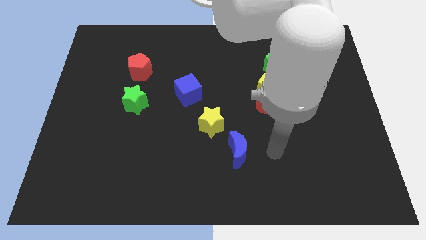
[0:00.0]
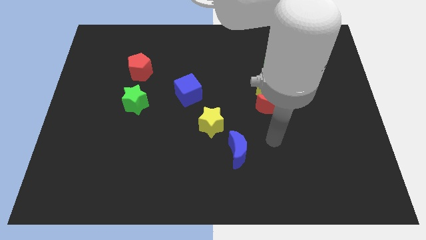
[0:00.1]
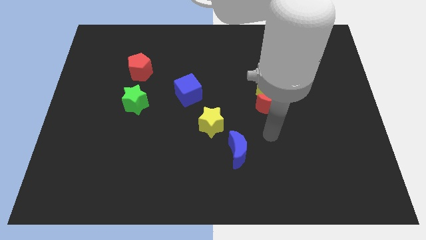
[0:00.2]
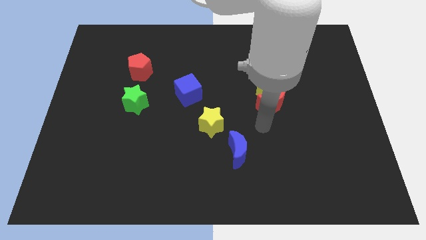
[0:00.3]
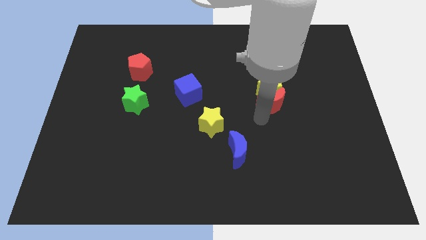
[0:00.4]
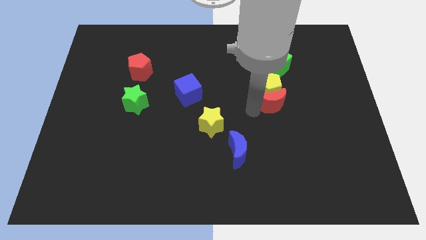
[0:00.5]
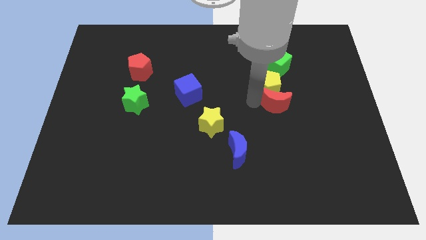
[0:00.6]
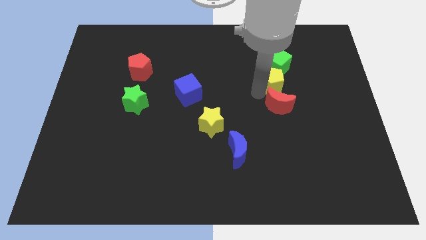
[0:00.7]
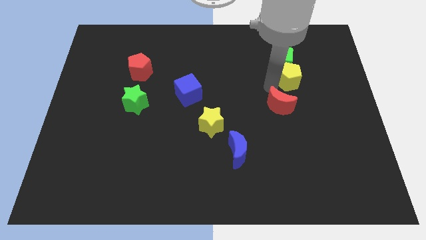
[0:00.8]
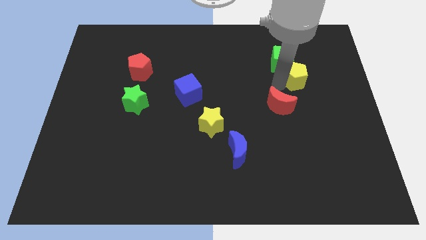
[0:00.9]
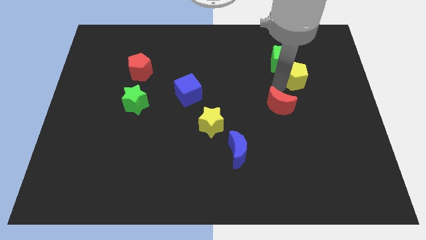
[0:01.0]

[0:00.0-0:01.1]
separate the red moon from the yellow pentagon

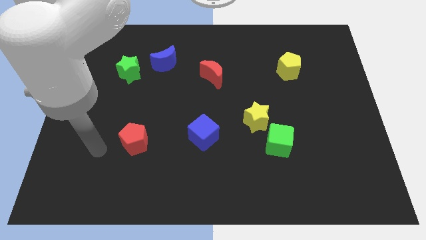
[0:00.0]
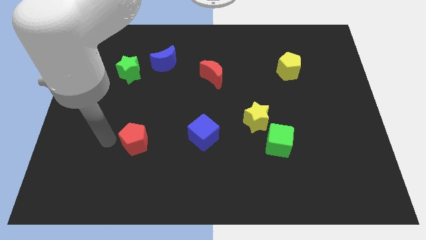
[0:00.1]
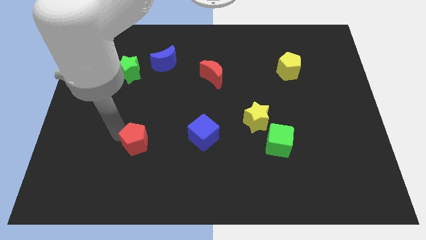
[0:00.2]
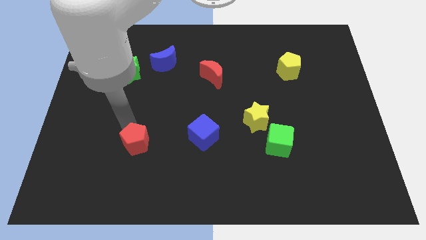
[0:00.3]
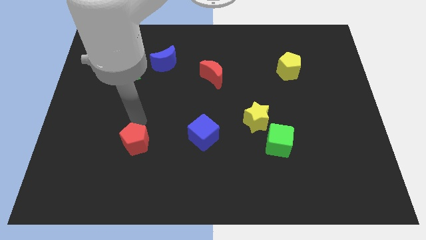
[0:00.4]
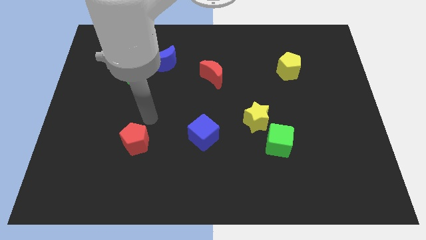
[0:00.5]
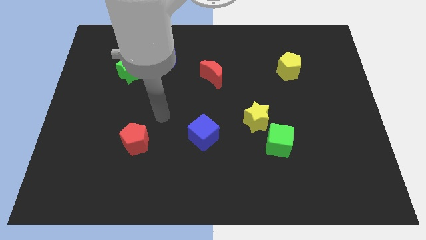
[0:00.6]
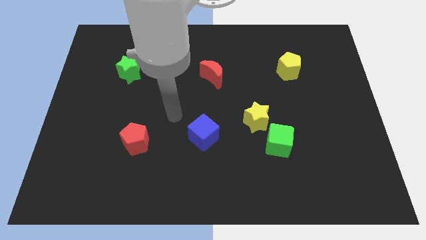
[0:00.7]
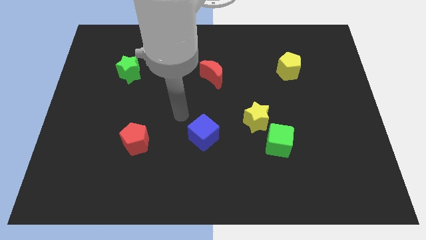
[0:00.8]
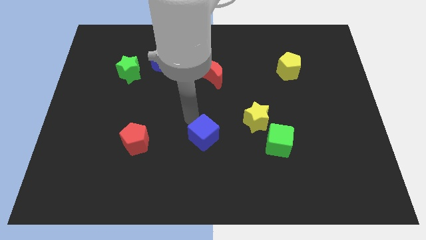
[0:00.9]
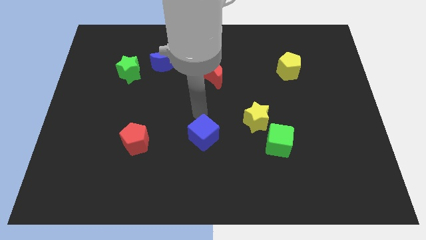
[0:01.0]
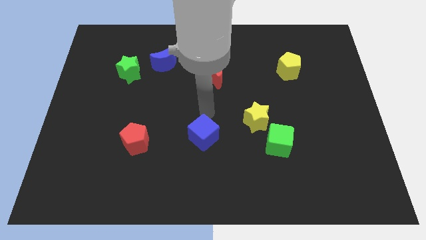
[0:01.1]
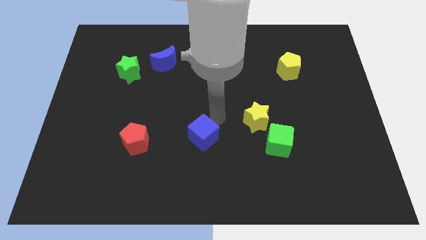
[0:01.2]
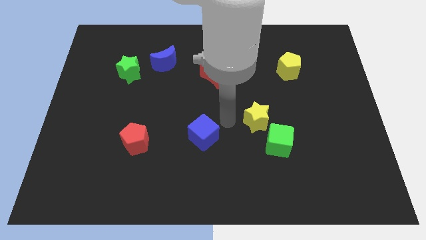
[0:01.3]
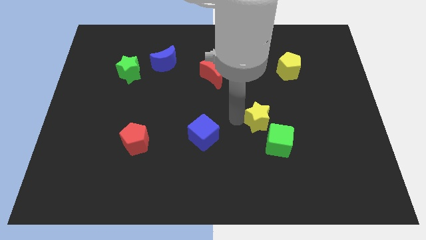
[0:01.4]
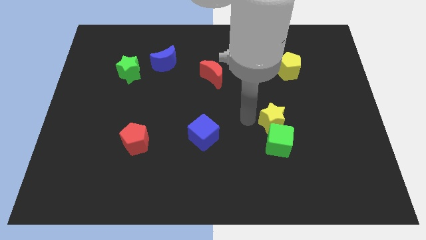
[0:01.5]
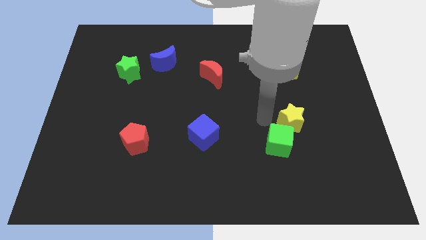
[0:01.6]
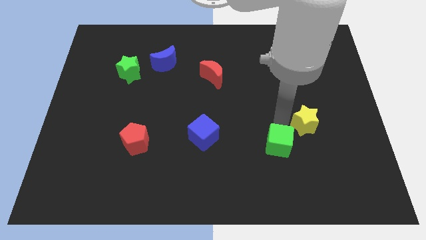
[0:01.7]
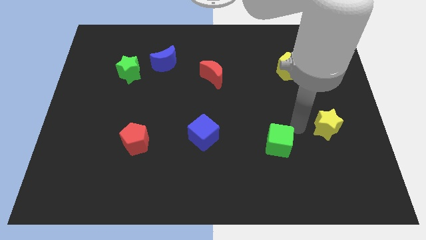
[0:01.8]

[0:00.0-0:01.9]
separate the green cube from the yellow star

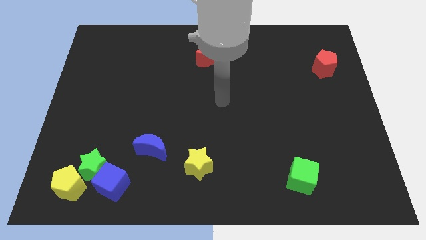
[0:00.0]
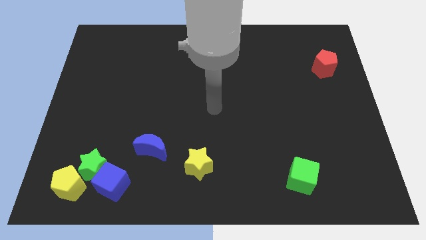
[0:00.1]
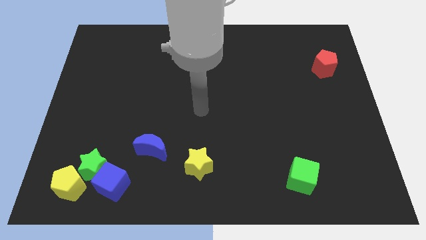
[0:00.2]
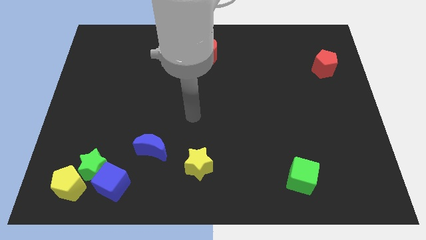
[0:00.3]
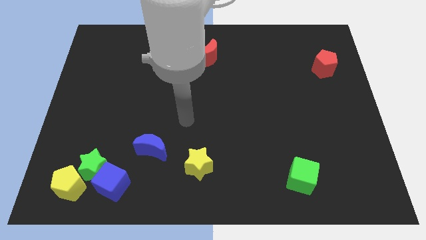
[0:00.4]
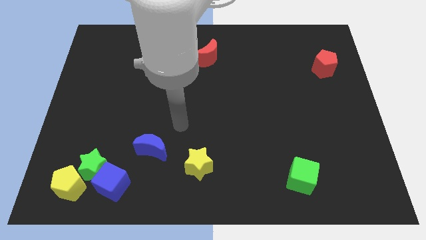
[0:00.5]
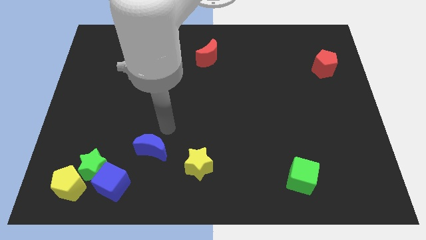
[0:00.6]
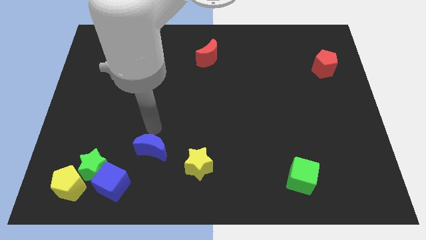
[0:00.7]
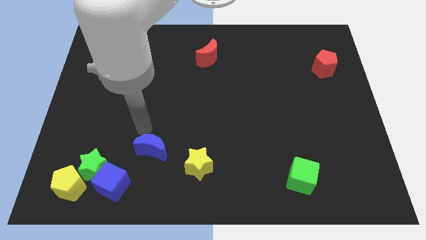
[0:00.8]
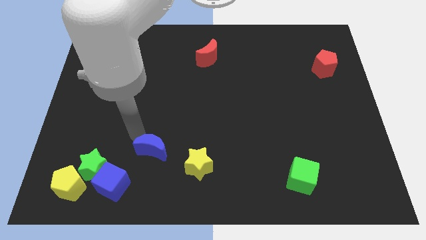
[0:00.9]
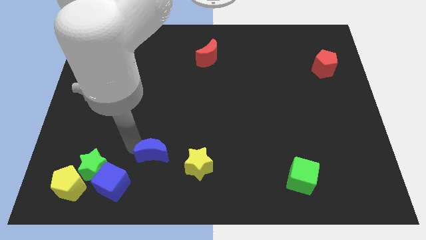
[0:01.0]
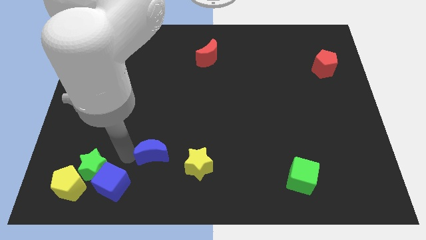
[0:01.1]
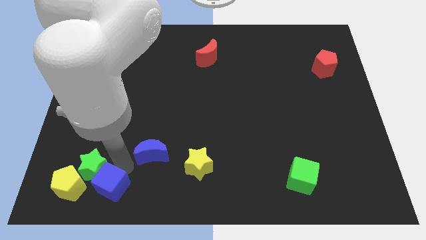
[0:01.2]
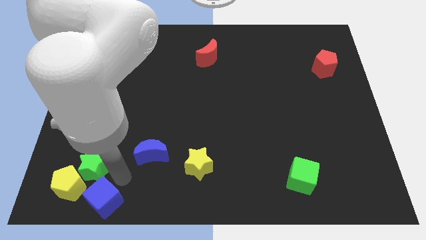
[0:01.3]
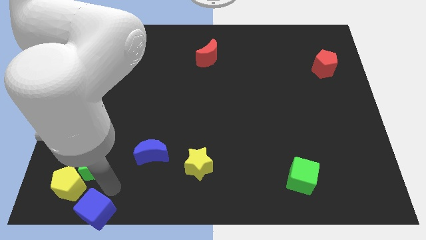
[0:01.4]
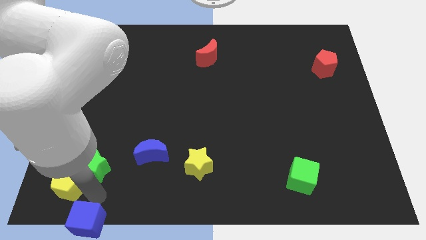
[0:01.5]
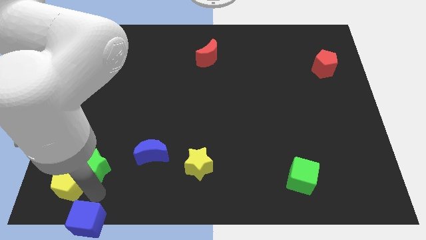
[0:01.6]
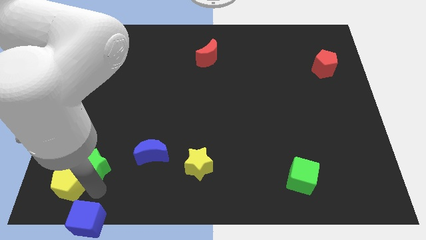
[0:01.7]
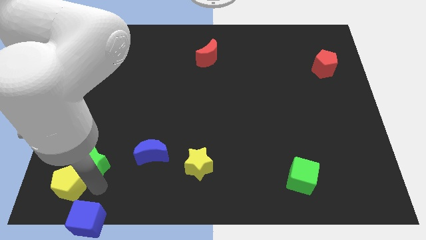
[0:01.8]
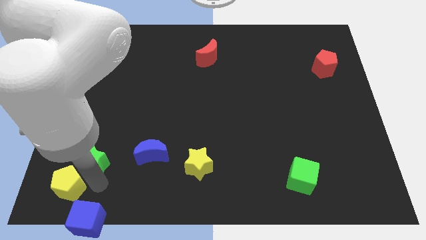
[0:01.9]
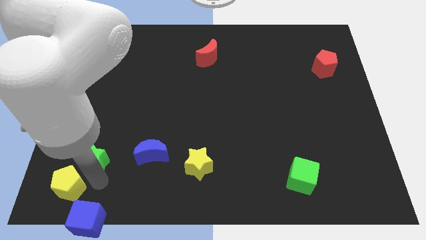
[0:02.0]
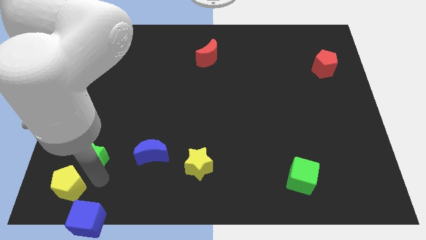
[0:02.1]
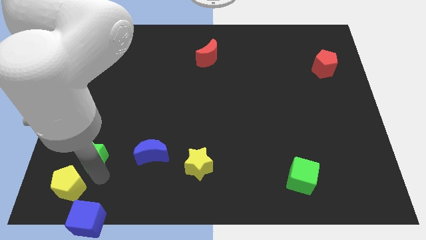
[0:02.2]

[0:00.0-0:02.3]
separate the green star from the blue cube and yellow pentagon

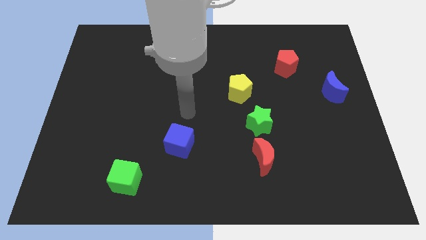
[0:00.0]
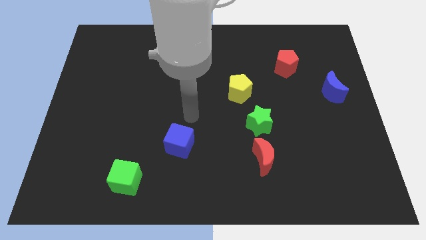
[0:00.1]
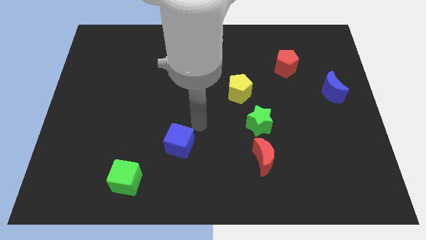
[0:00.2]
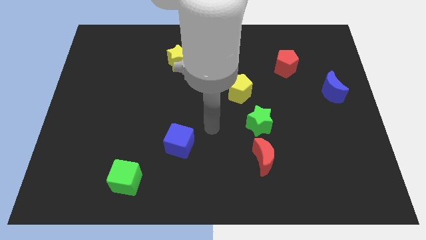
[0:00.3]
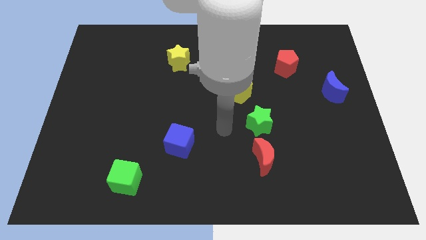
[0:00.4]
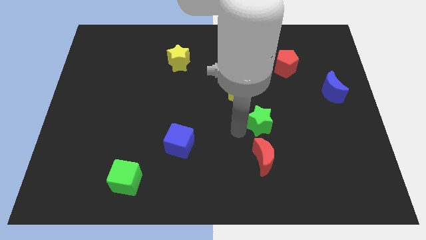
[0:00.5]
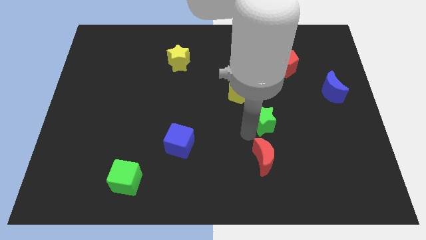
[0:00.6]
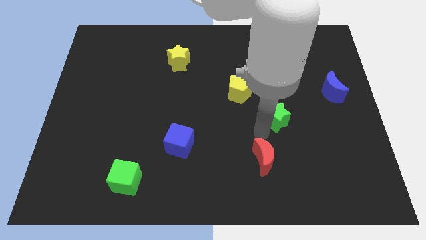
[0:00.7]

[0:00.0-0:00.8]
move the red moon away from the green star

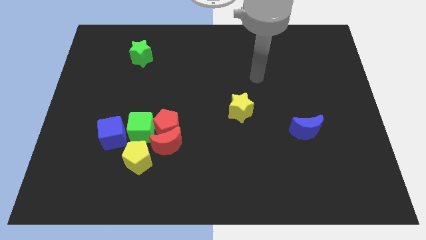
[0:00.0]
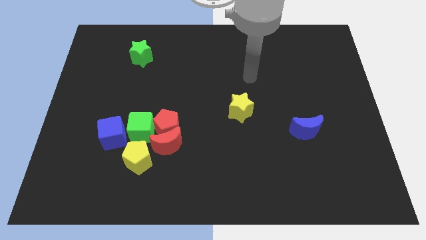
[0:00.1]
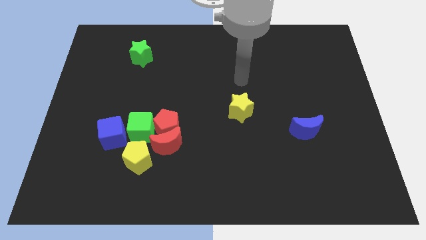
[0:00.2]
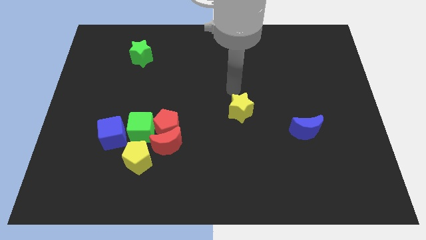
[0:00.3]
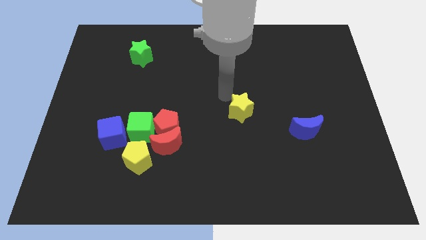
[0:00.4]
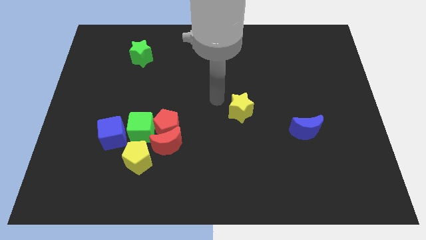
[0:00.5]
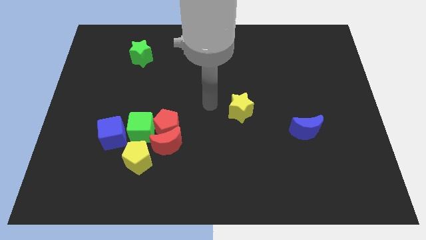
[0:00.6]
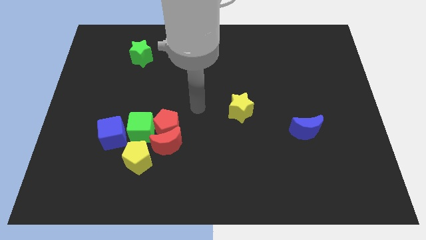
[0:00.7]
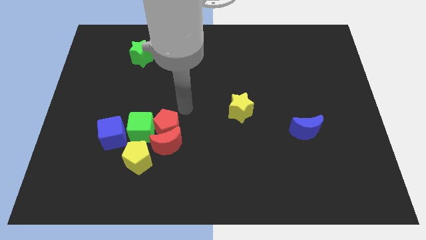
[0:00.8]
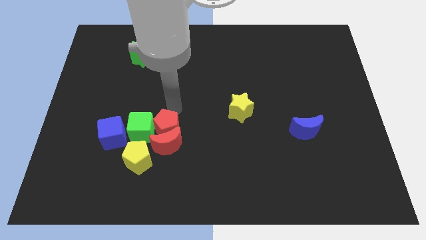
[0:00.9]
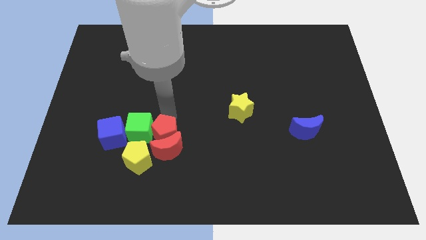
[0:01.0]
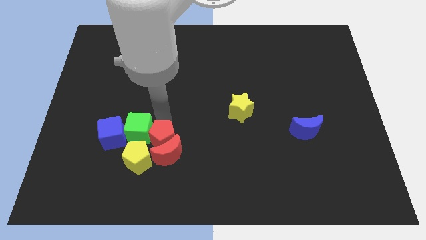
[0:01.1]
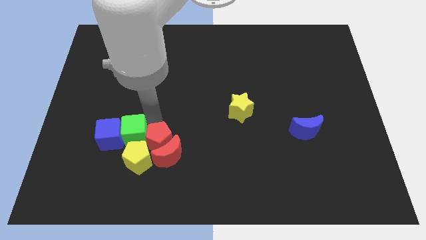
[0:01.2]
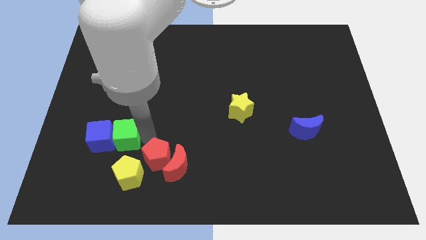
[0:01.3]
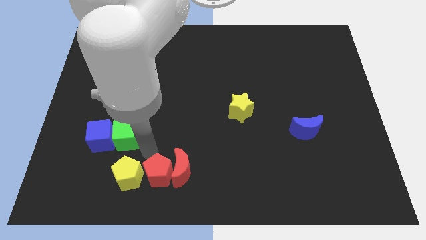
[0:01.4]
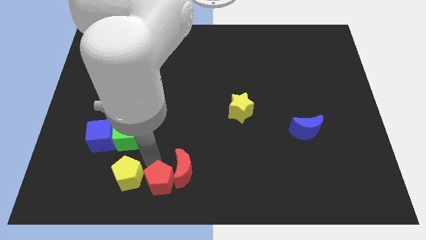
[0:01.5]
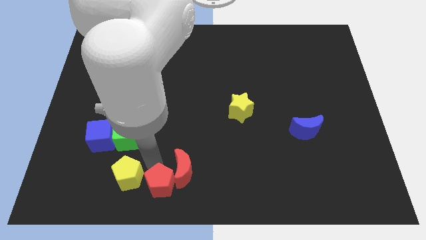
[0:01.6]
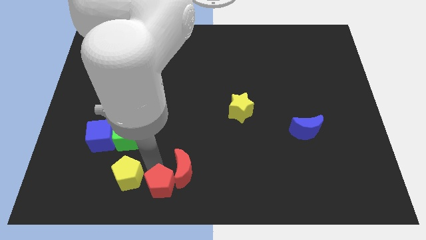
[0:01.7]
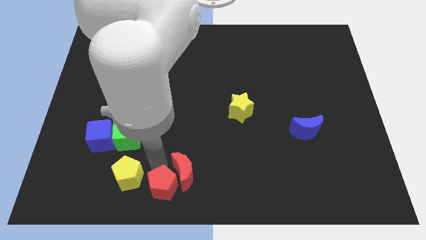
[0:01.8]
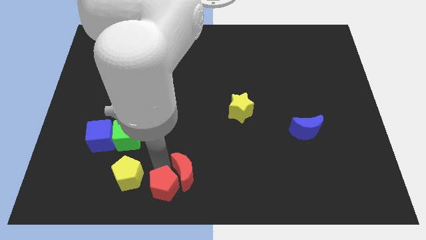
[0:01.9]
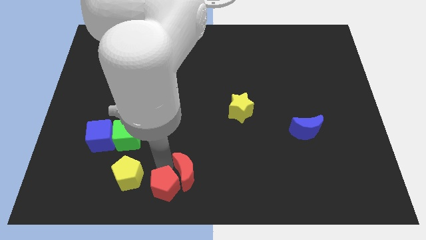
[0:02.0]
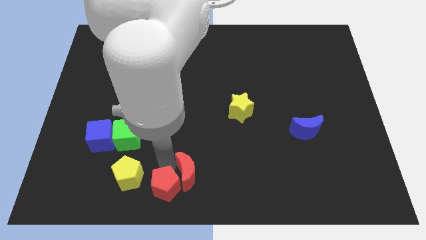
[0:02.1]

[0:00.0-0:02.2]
move the red moon away from the red pentagon, yellow pentagon, and green cube

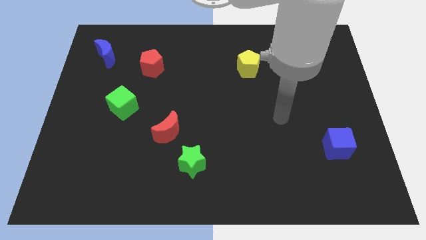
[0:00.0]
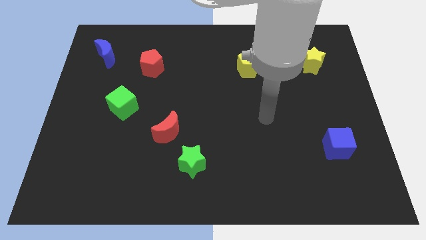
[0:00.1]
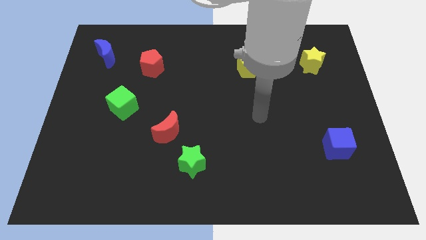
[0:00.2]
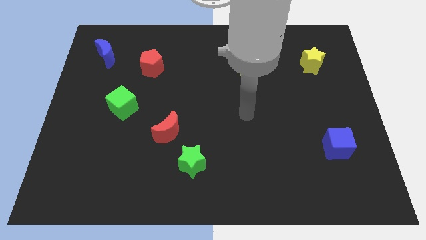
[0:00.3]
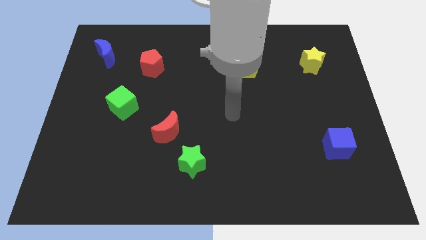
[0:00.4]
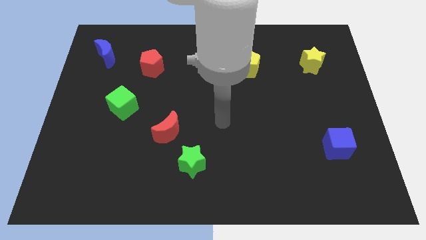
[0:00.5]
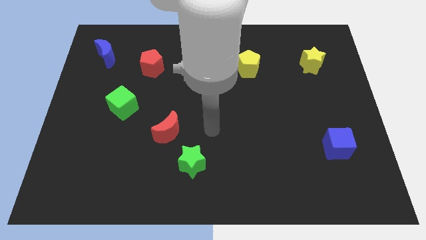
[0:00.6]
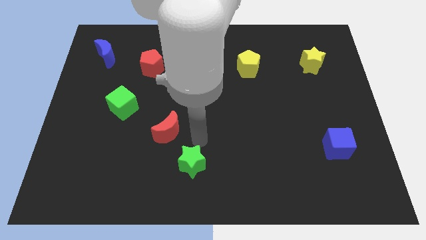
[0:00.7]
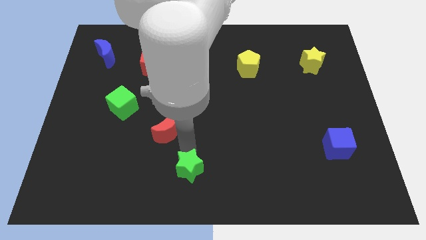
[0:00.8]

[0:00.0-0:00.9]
separate the red moon from the green star
